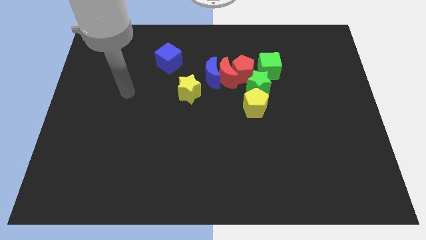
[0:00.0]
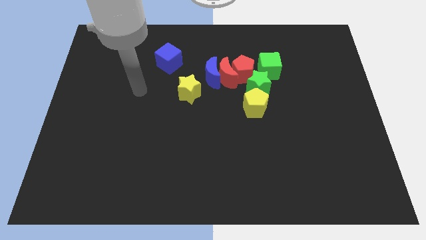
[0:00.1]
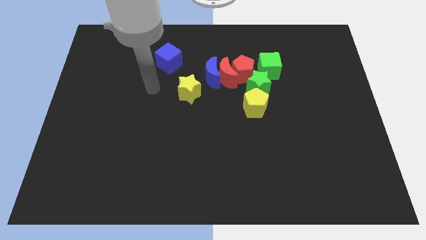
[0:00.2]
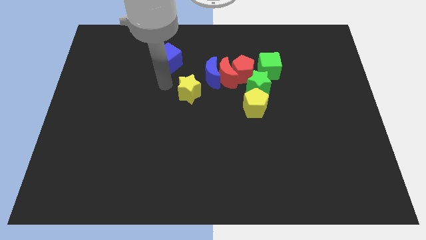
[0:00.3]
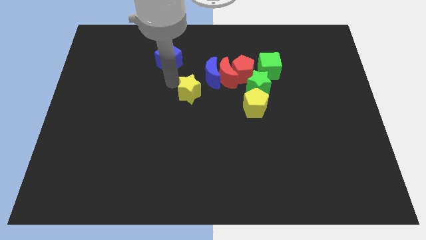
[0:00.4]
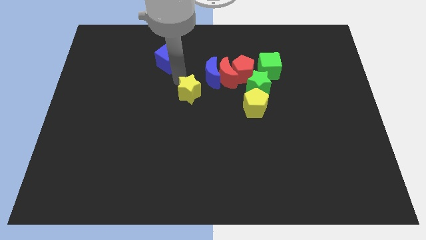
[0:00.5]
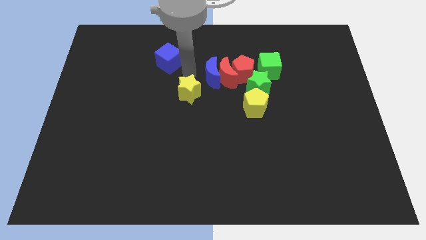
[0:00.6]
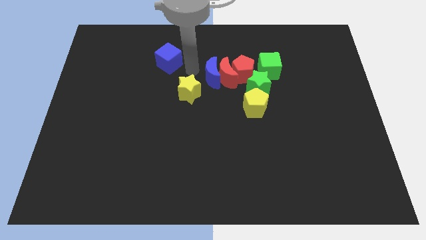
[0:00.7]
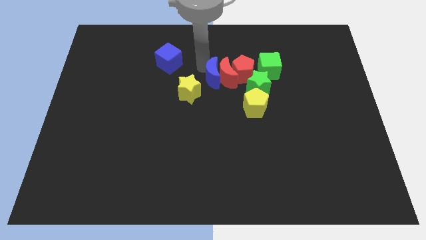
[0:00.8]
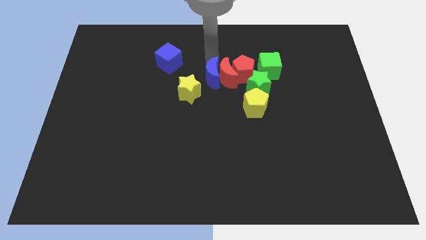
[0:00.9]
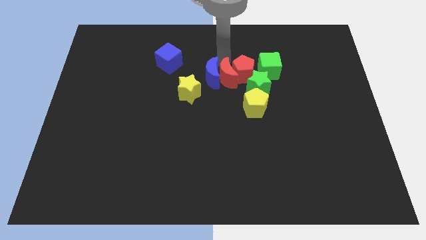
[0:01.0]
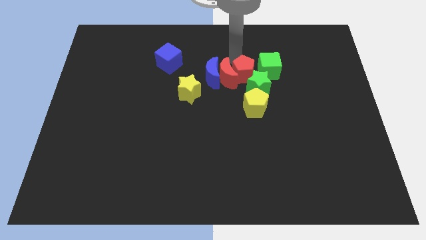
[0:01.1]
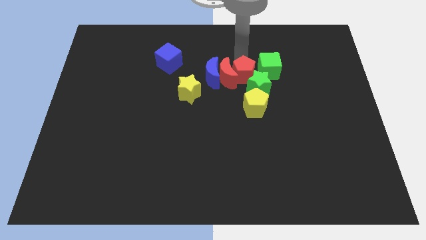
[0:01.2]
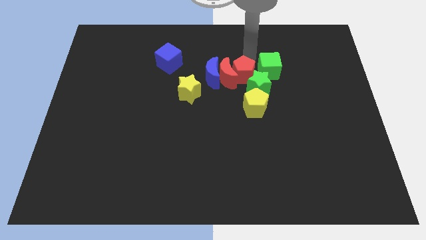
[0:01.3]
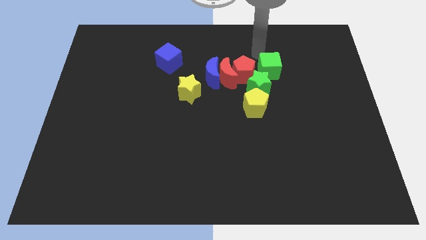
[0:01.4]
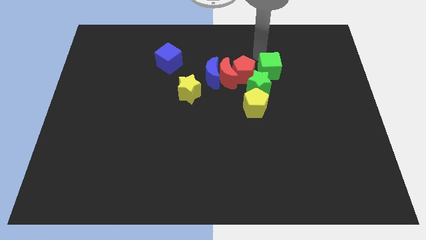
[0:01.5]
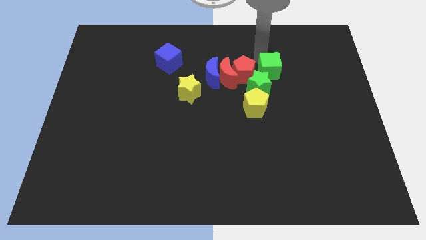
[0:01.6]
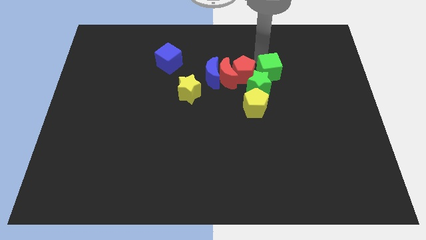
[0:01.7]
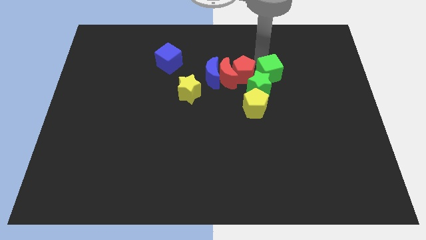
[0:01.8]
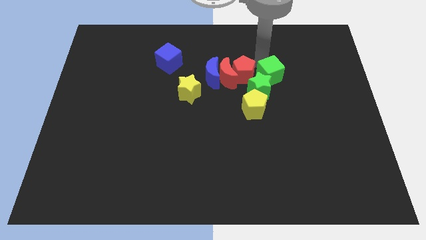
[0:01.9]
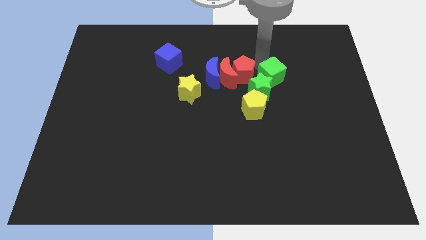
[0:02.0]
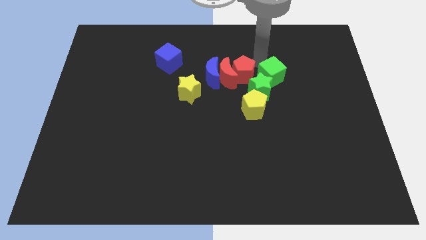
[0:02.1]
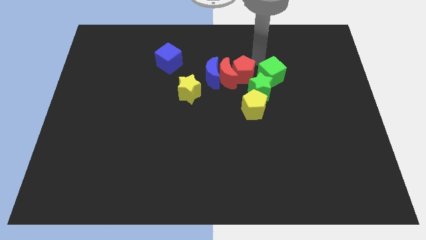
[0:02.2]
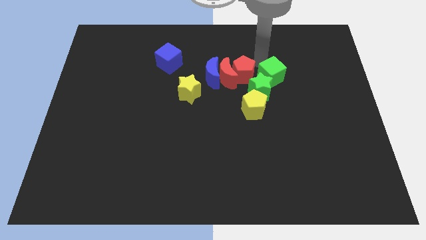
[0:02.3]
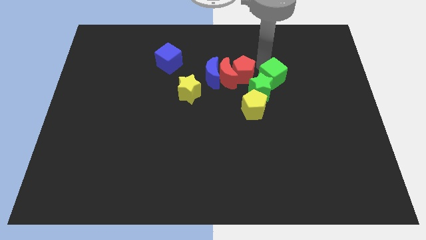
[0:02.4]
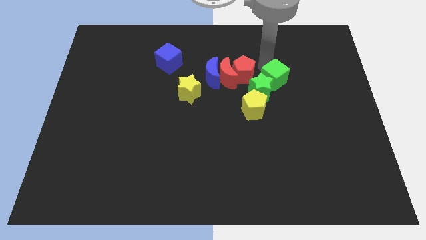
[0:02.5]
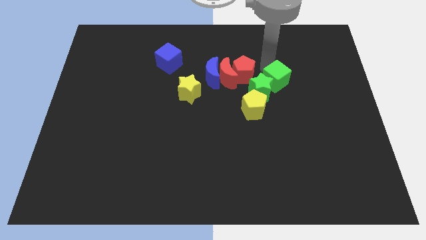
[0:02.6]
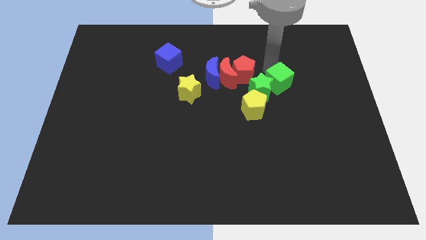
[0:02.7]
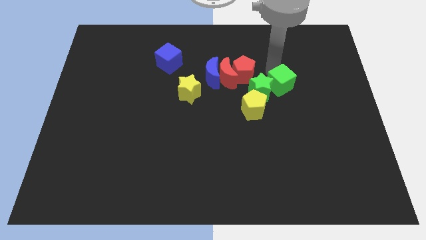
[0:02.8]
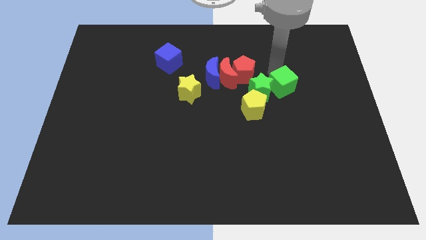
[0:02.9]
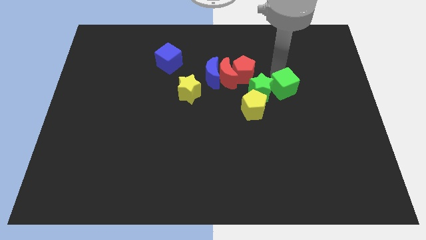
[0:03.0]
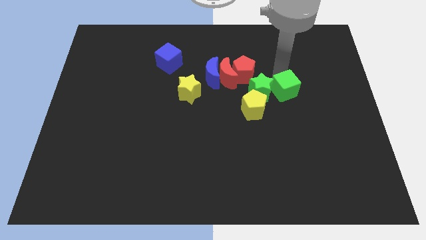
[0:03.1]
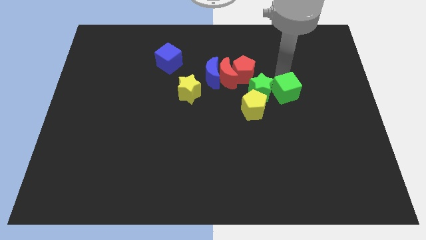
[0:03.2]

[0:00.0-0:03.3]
slide the green cube down somewhat

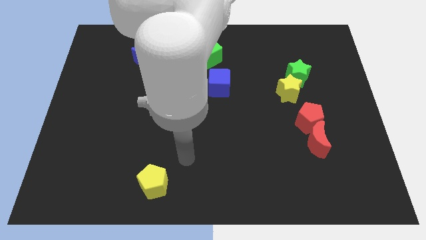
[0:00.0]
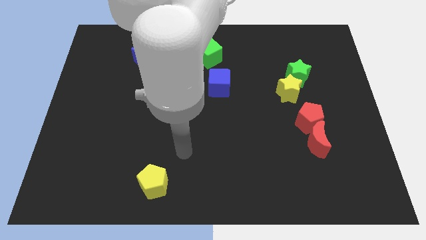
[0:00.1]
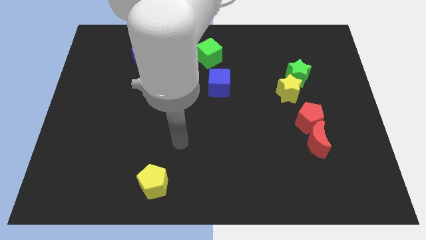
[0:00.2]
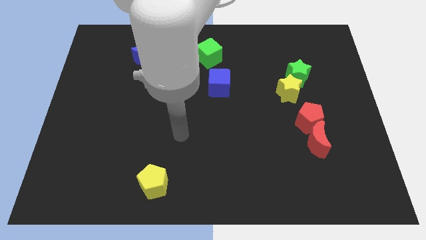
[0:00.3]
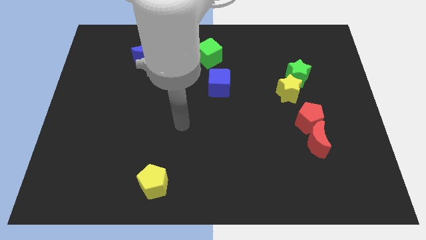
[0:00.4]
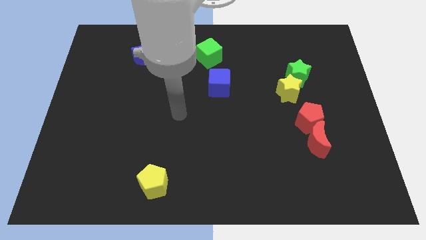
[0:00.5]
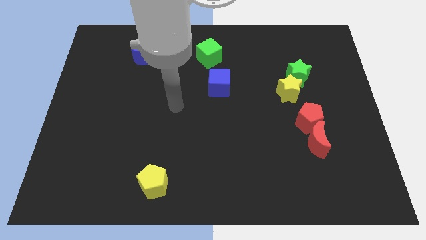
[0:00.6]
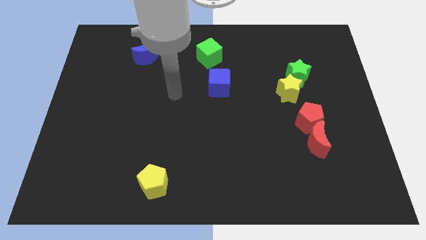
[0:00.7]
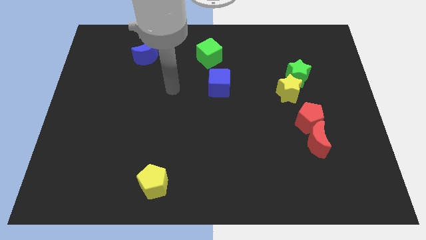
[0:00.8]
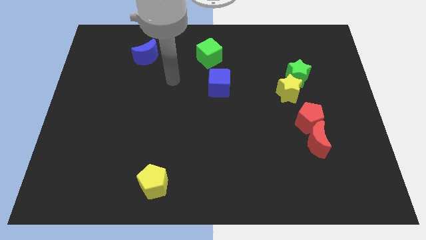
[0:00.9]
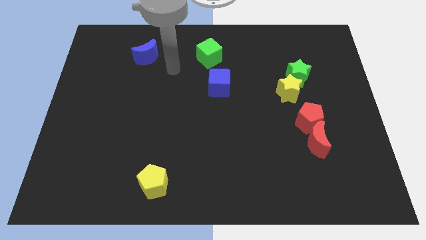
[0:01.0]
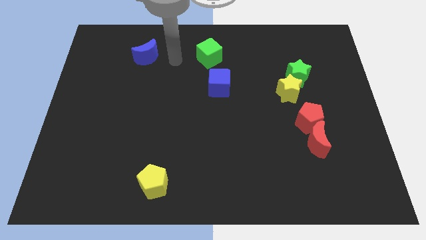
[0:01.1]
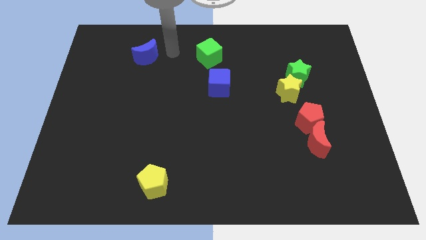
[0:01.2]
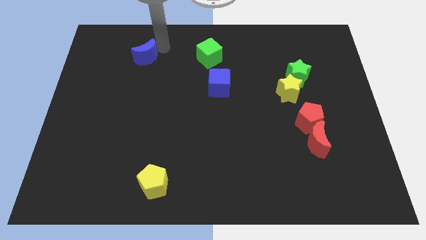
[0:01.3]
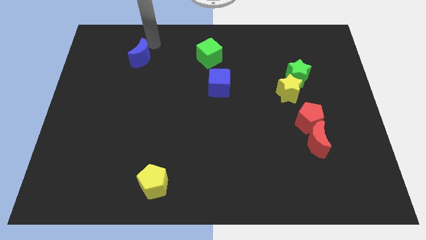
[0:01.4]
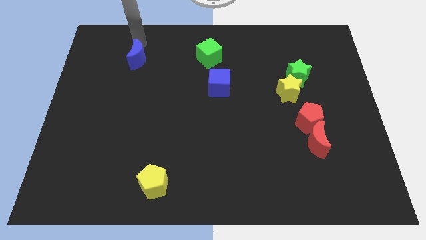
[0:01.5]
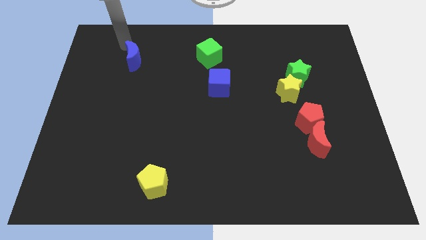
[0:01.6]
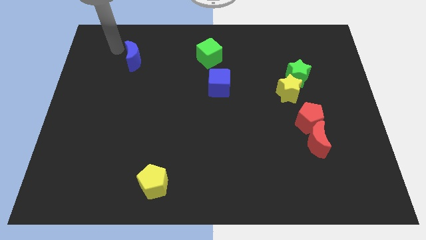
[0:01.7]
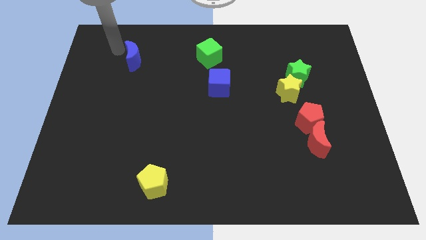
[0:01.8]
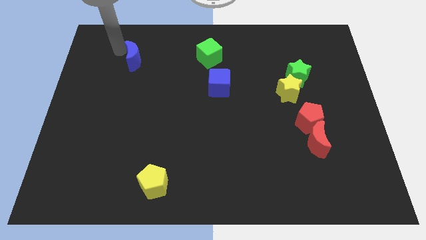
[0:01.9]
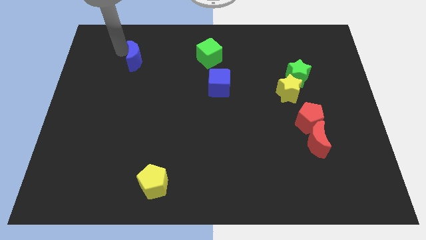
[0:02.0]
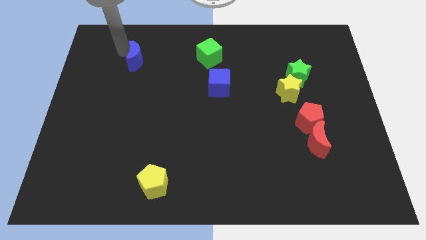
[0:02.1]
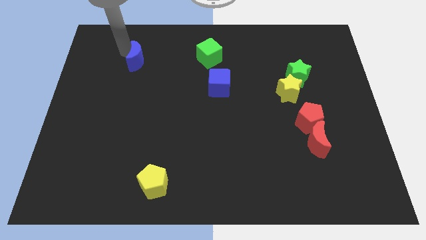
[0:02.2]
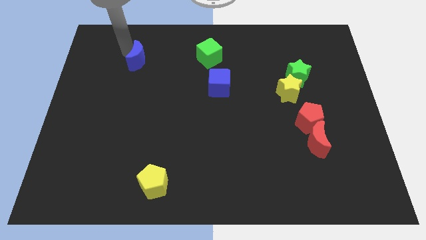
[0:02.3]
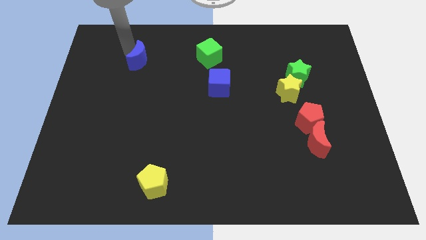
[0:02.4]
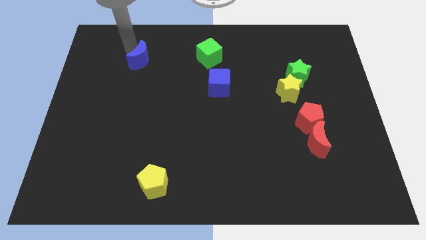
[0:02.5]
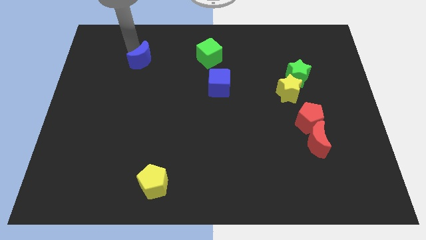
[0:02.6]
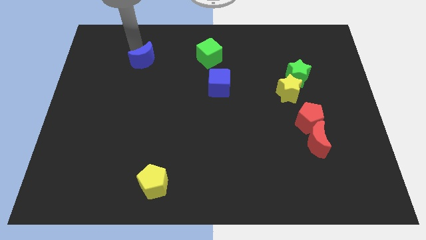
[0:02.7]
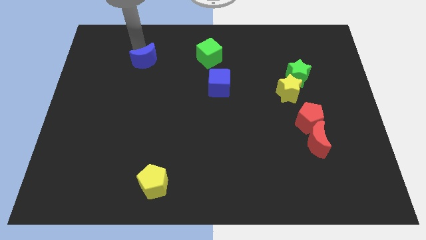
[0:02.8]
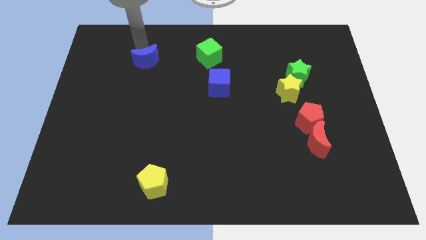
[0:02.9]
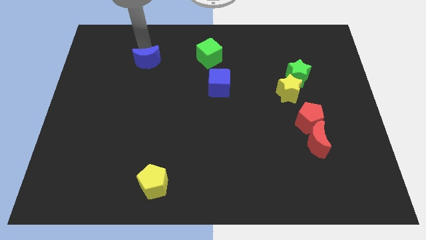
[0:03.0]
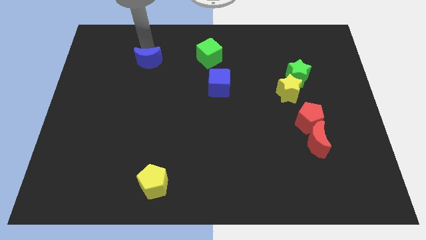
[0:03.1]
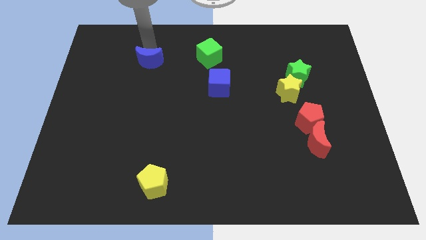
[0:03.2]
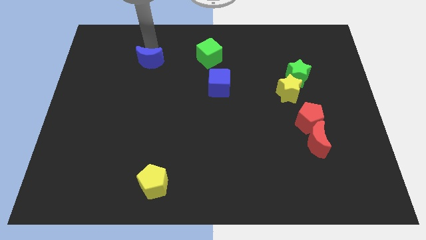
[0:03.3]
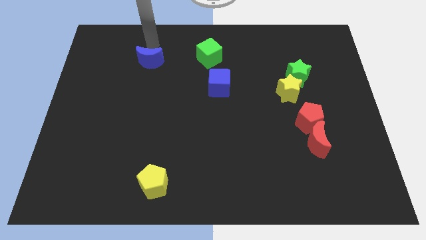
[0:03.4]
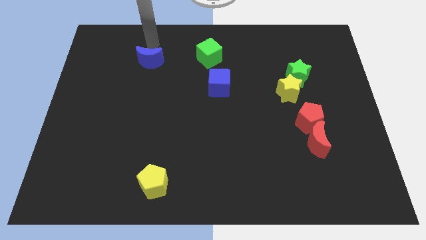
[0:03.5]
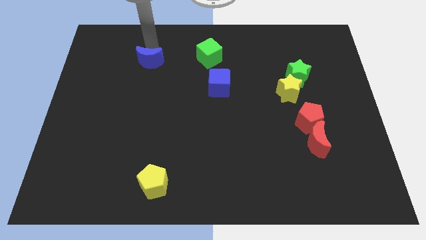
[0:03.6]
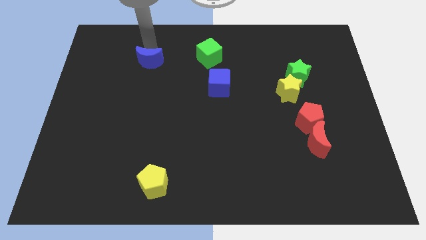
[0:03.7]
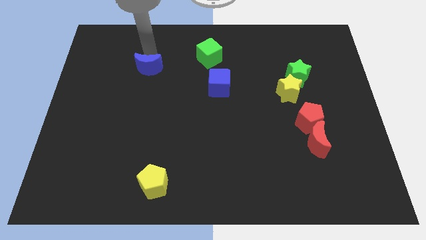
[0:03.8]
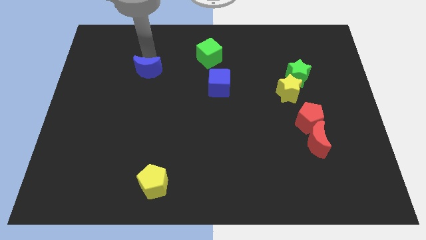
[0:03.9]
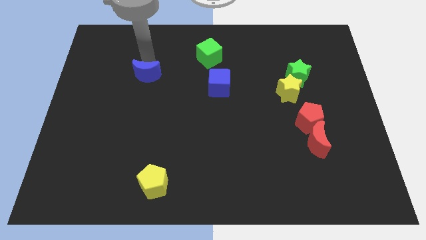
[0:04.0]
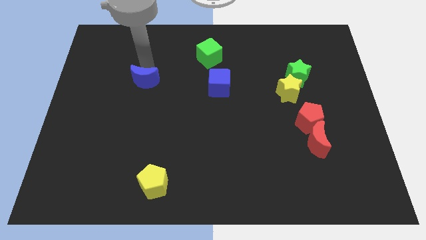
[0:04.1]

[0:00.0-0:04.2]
move the blue moon downwards slightly
